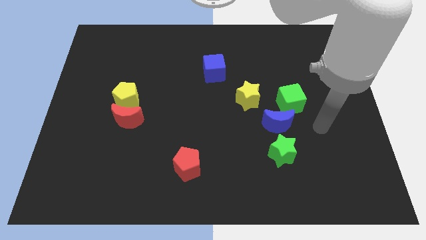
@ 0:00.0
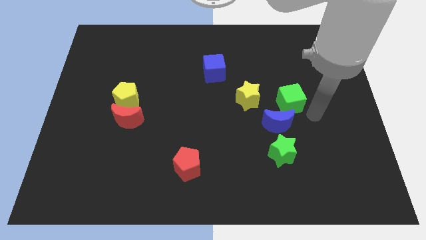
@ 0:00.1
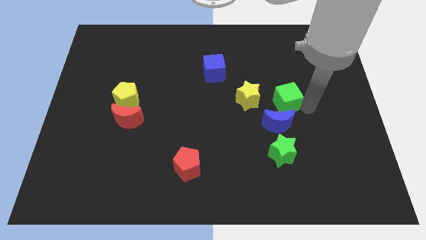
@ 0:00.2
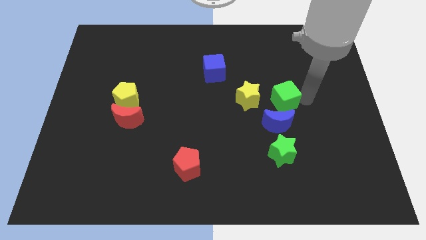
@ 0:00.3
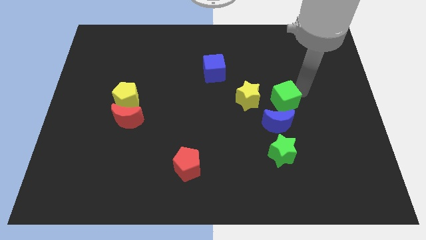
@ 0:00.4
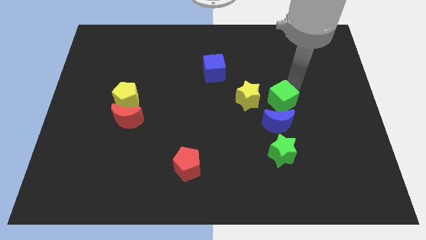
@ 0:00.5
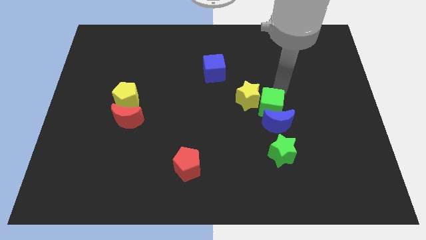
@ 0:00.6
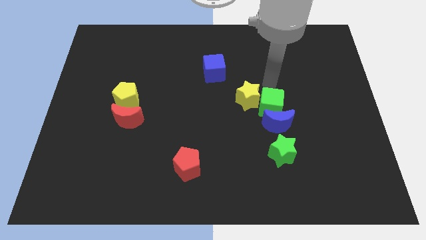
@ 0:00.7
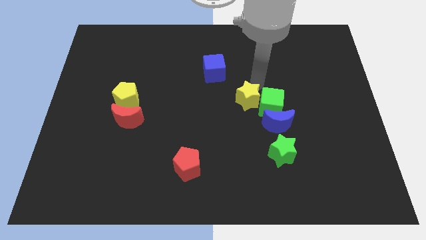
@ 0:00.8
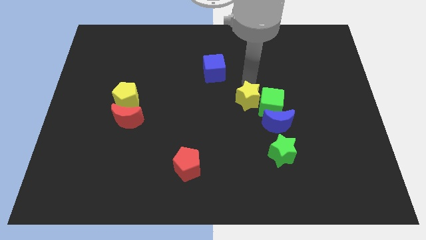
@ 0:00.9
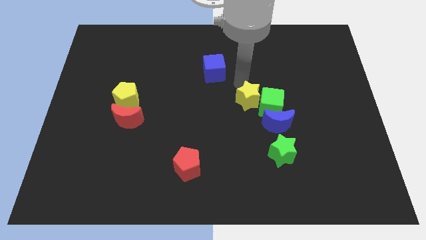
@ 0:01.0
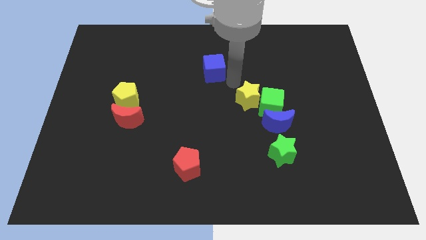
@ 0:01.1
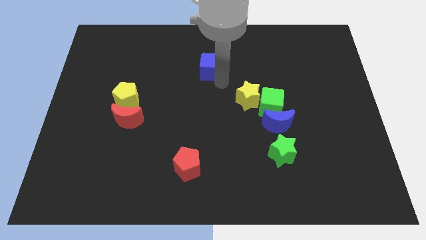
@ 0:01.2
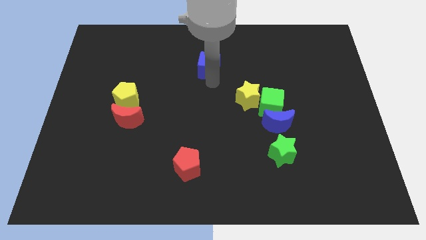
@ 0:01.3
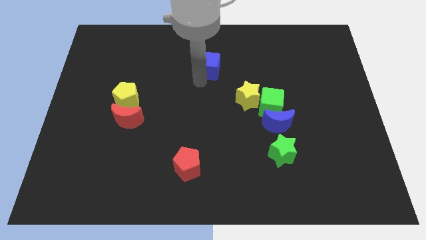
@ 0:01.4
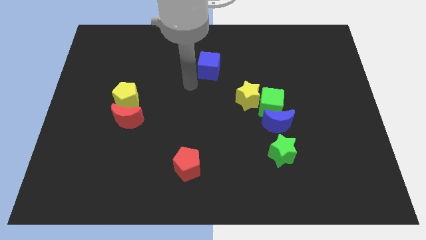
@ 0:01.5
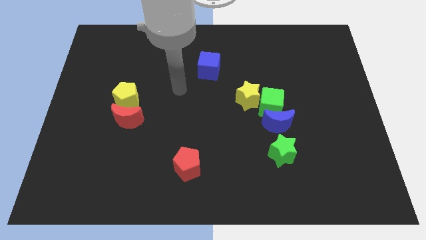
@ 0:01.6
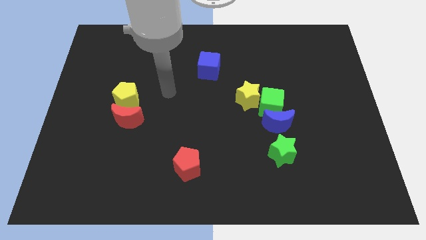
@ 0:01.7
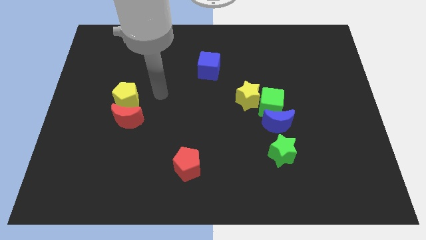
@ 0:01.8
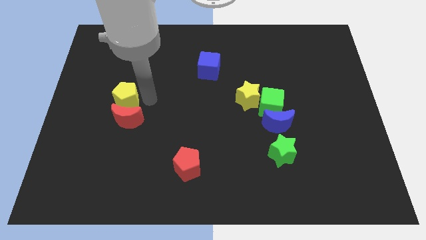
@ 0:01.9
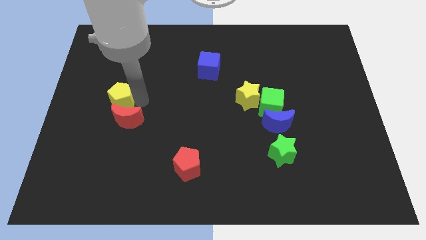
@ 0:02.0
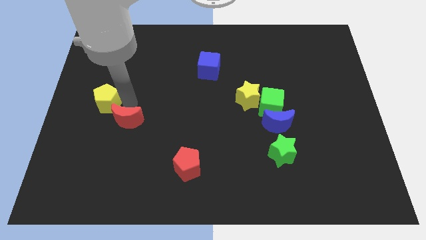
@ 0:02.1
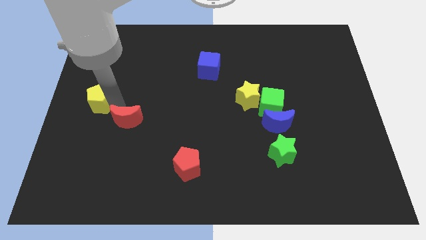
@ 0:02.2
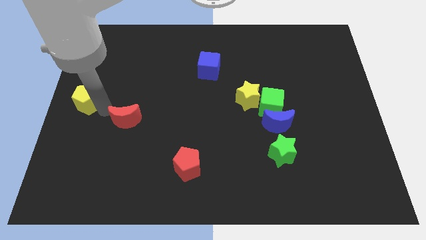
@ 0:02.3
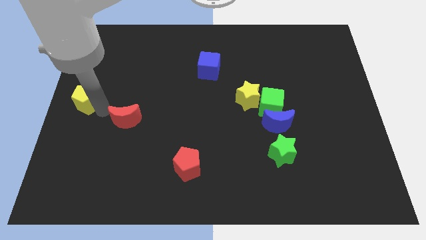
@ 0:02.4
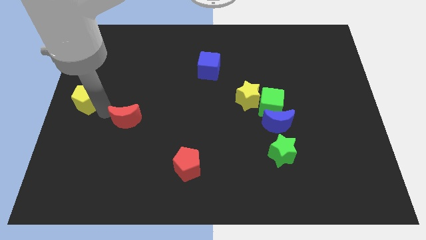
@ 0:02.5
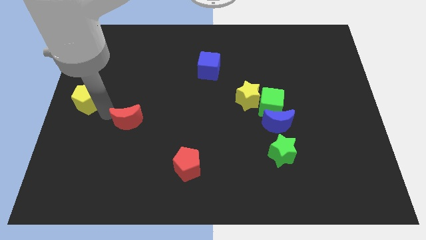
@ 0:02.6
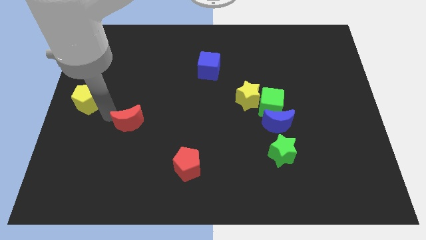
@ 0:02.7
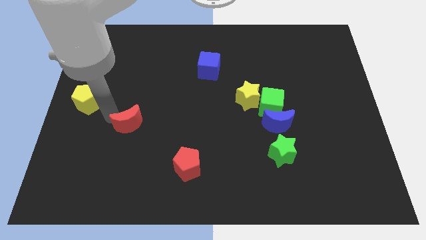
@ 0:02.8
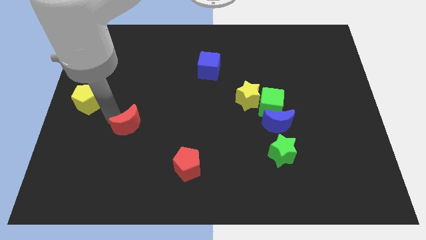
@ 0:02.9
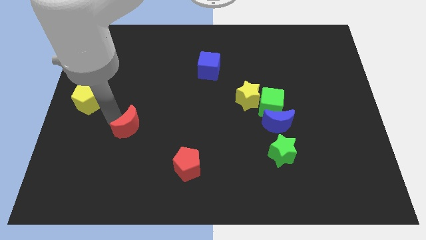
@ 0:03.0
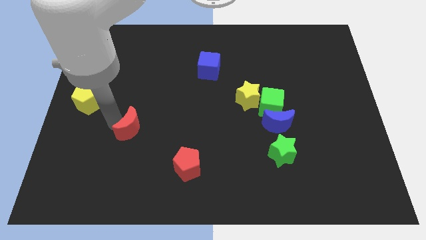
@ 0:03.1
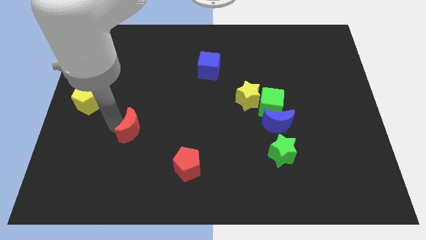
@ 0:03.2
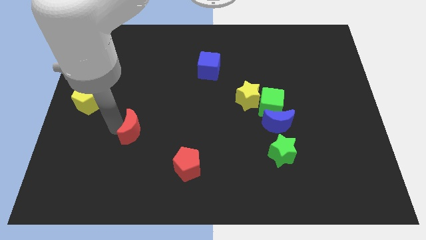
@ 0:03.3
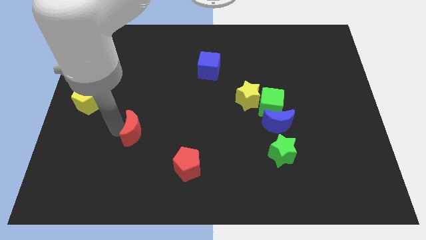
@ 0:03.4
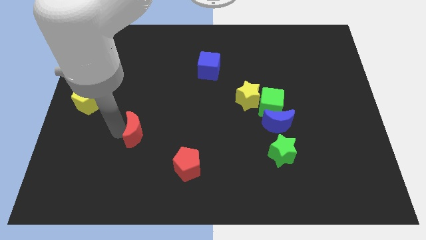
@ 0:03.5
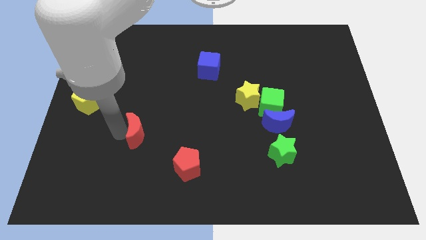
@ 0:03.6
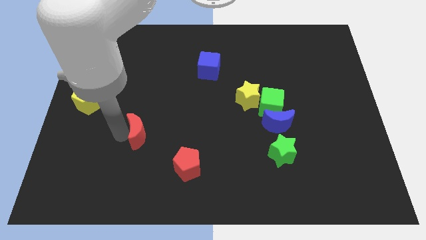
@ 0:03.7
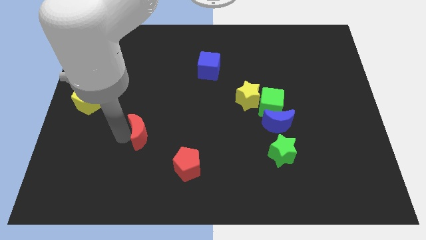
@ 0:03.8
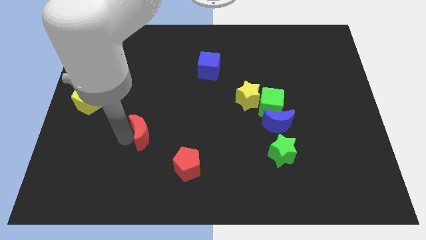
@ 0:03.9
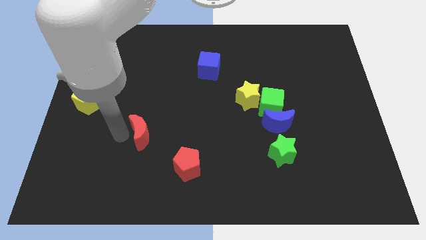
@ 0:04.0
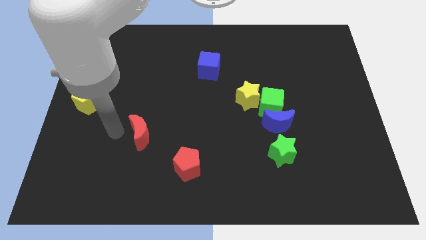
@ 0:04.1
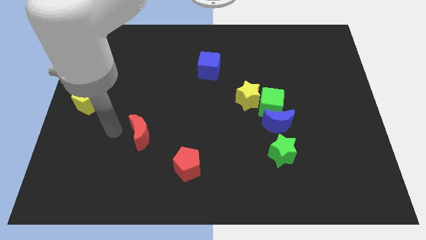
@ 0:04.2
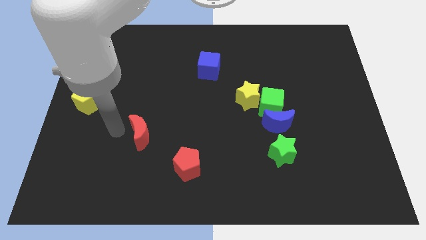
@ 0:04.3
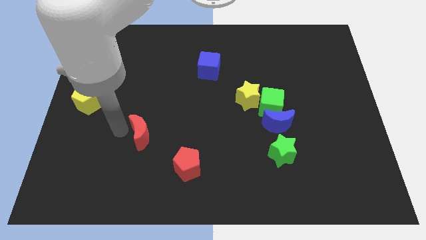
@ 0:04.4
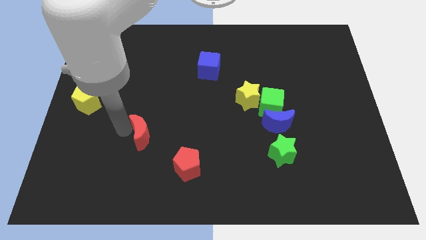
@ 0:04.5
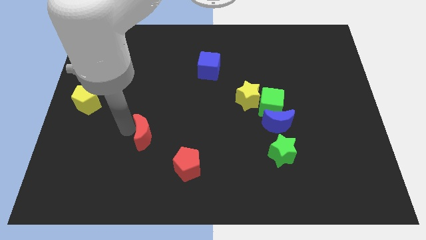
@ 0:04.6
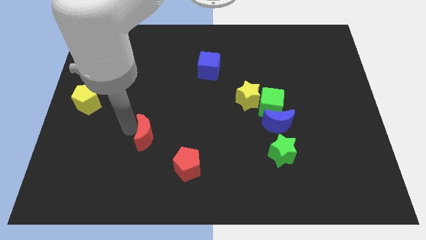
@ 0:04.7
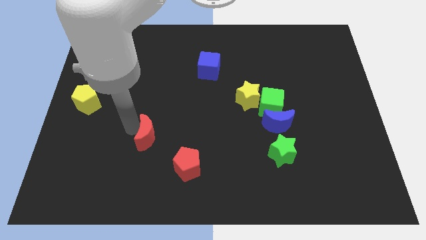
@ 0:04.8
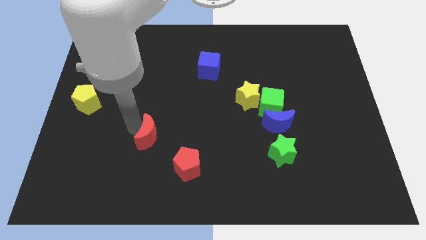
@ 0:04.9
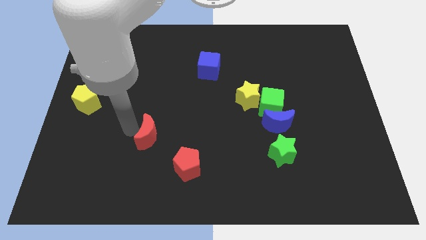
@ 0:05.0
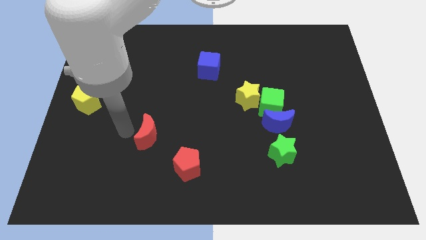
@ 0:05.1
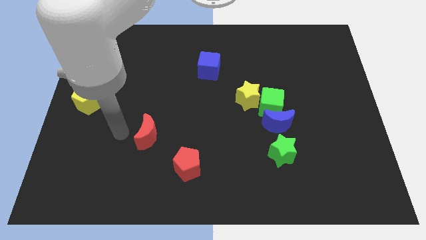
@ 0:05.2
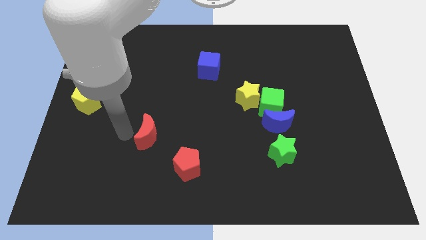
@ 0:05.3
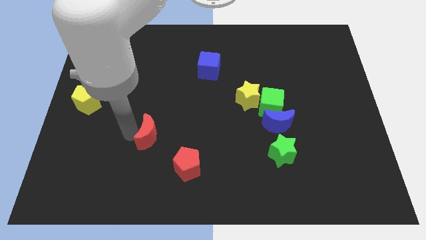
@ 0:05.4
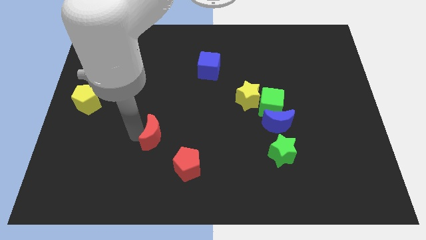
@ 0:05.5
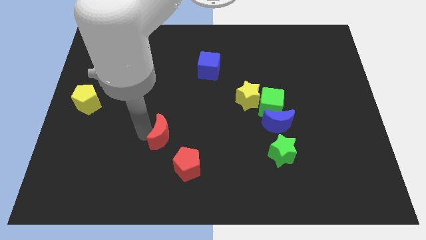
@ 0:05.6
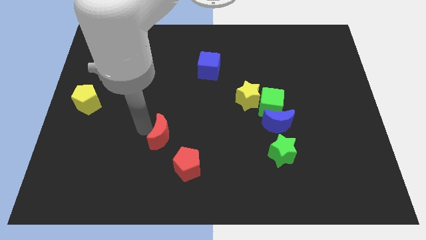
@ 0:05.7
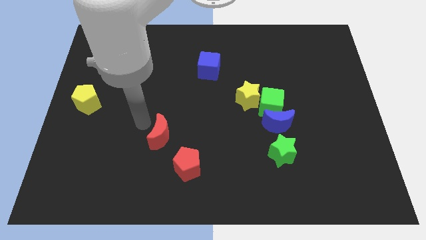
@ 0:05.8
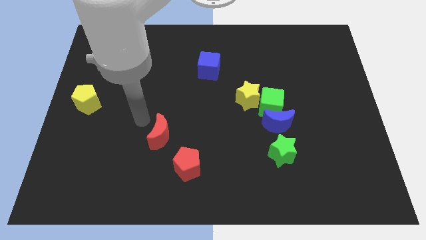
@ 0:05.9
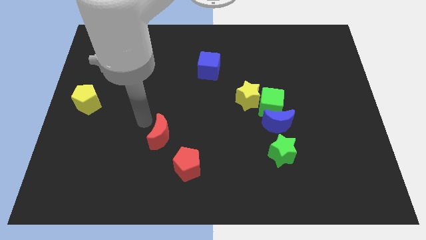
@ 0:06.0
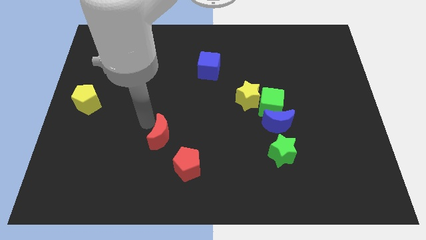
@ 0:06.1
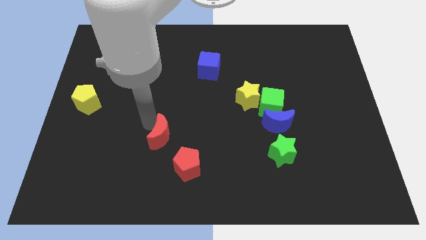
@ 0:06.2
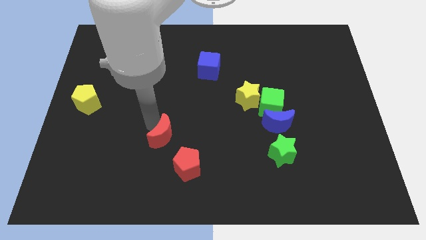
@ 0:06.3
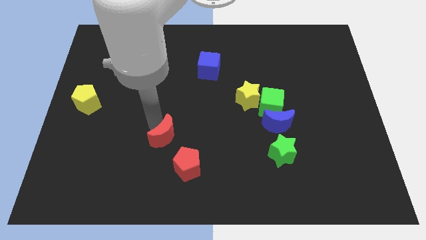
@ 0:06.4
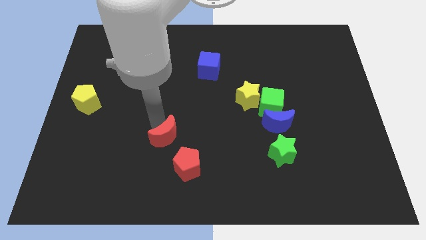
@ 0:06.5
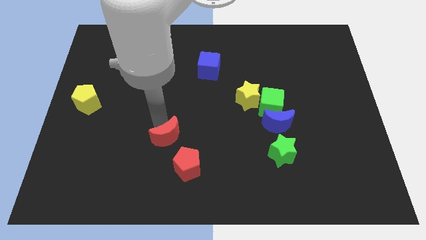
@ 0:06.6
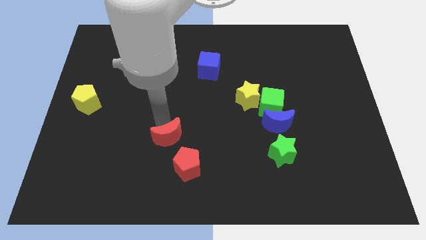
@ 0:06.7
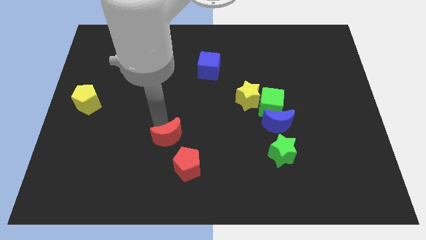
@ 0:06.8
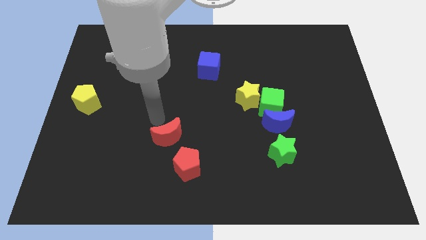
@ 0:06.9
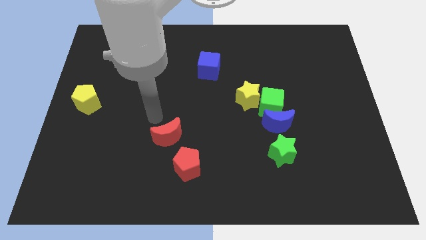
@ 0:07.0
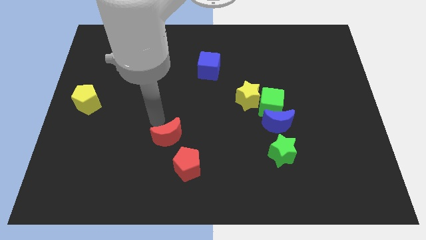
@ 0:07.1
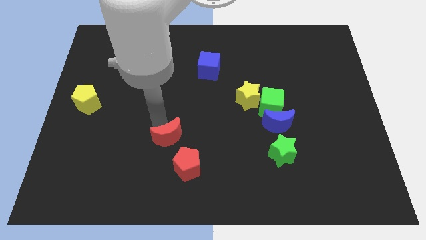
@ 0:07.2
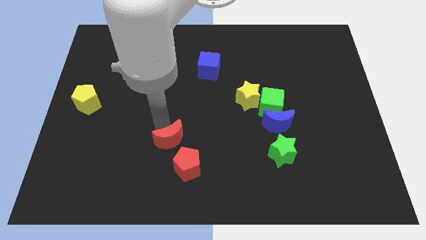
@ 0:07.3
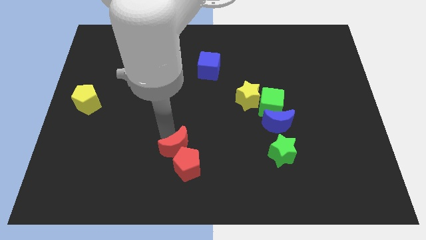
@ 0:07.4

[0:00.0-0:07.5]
move the red moon to the red pentagon
